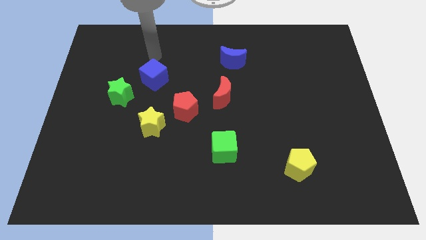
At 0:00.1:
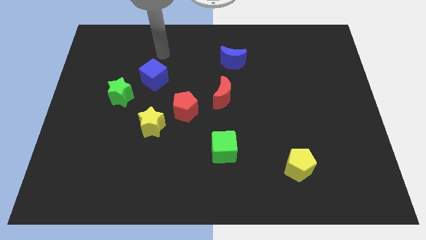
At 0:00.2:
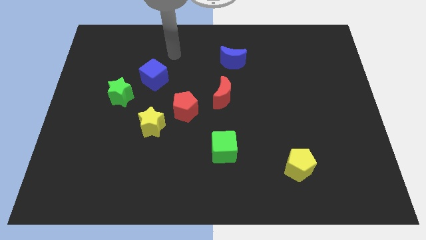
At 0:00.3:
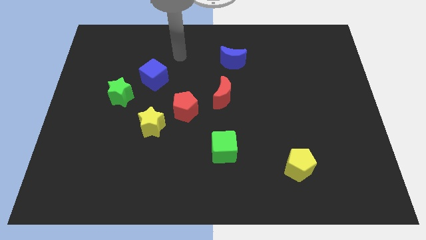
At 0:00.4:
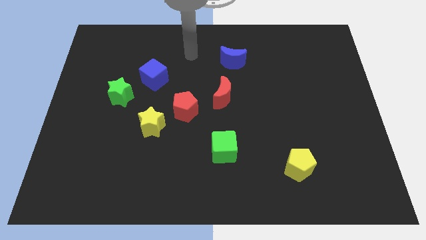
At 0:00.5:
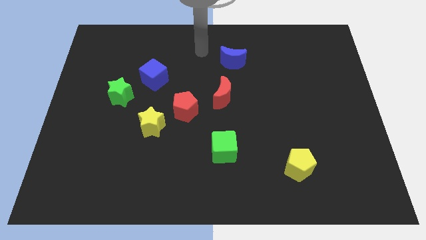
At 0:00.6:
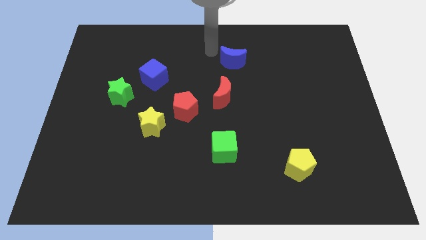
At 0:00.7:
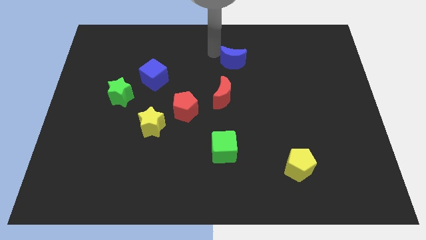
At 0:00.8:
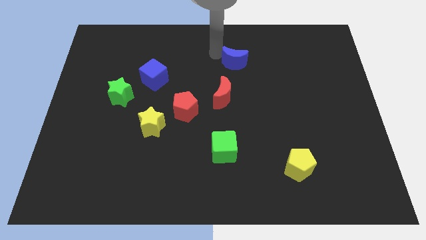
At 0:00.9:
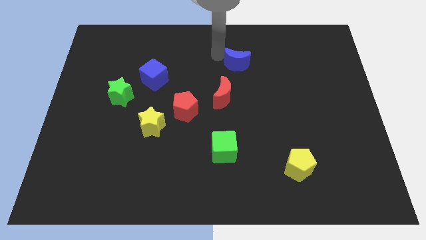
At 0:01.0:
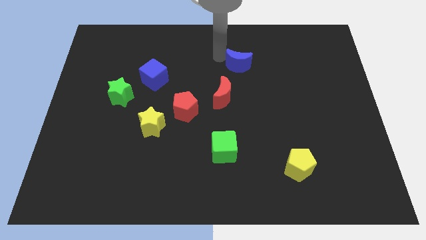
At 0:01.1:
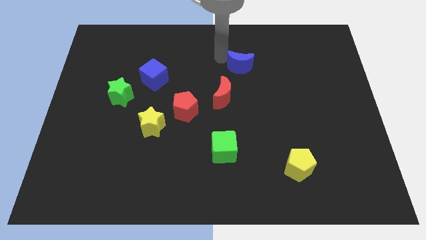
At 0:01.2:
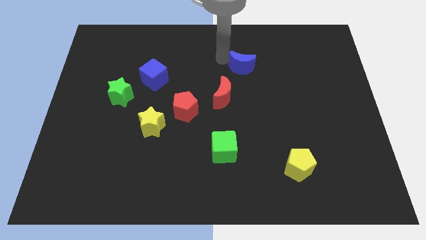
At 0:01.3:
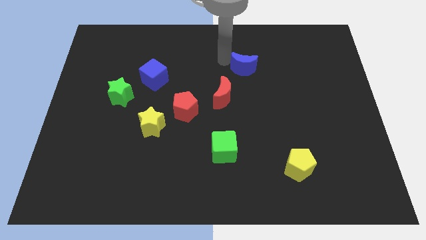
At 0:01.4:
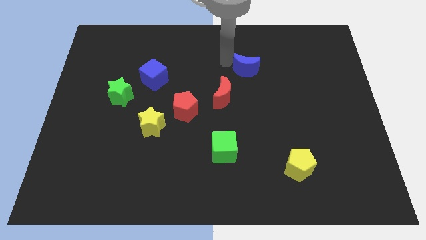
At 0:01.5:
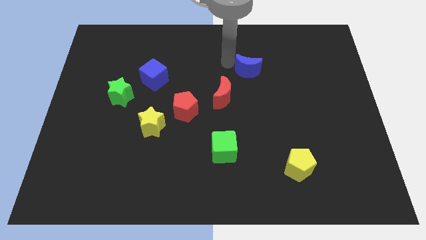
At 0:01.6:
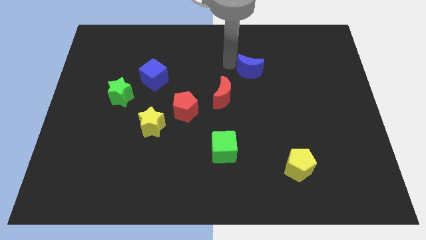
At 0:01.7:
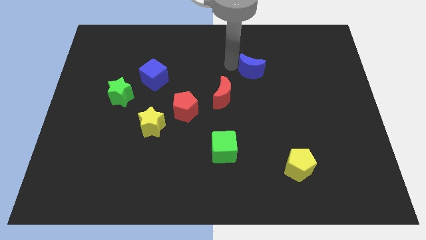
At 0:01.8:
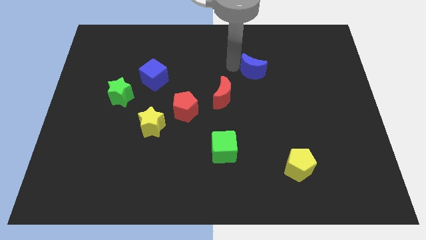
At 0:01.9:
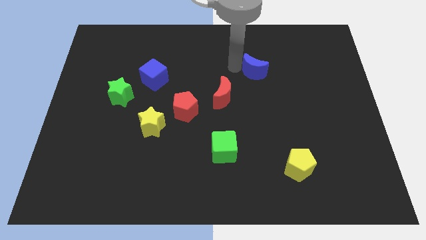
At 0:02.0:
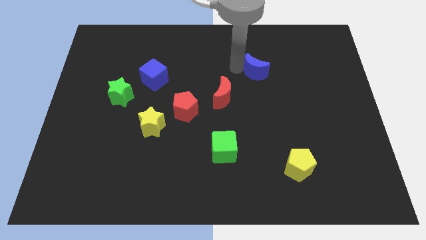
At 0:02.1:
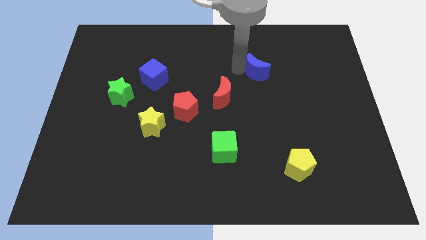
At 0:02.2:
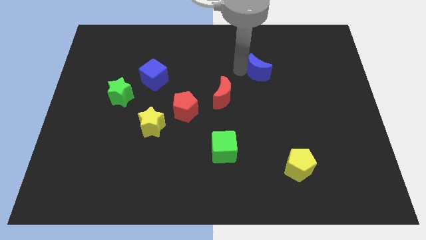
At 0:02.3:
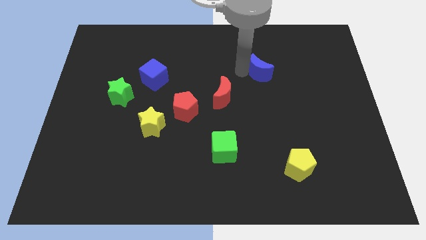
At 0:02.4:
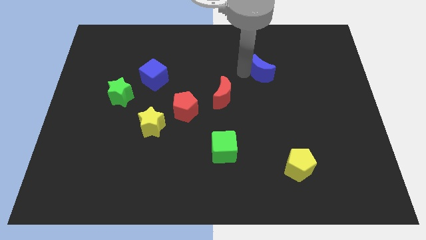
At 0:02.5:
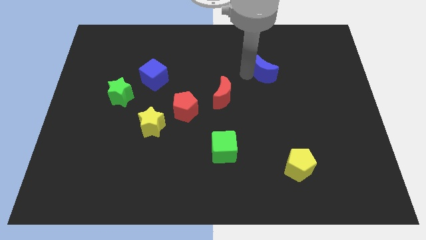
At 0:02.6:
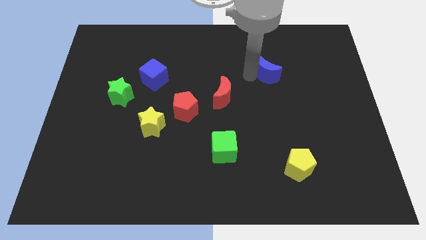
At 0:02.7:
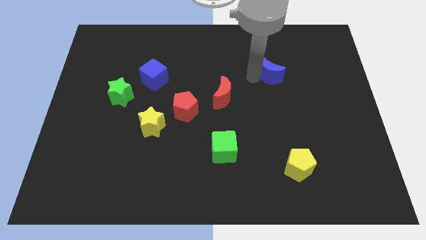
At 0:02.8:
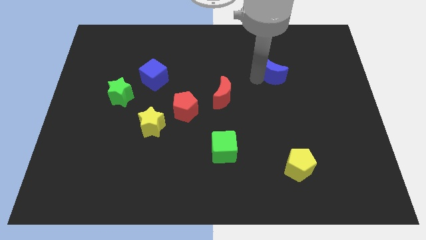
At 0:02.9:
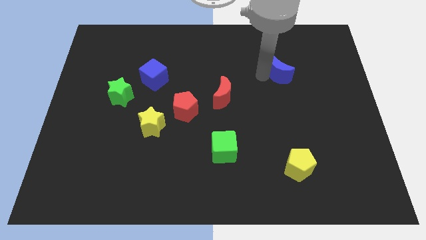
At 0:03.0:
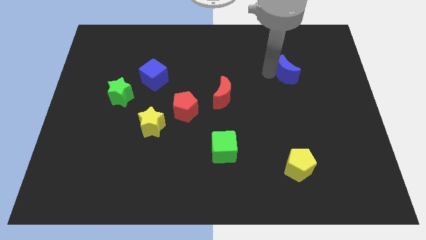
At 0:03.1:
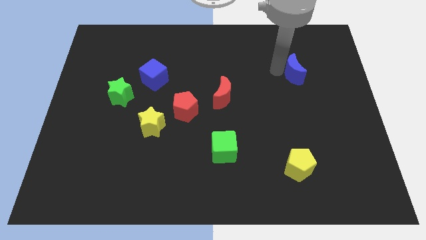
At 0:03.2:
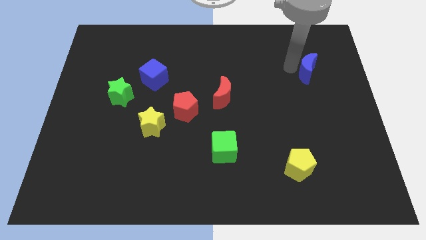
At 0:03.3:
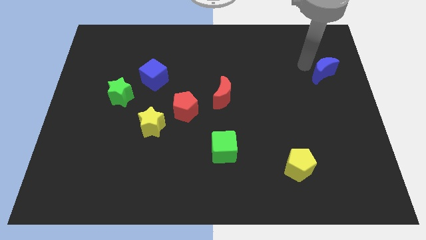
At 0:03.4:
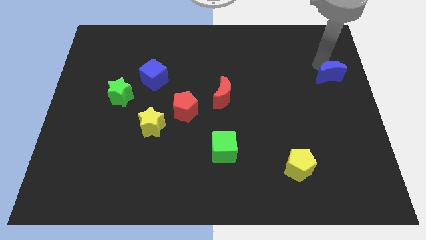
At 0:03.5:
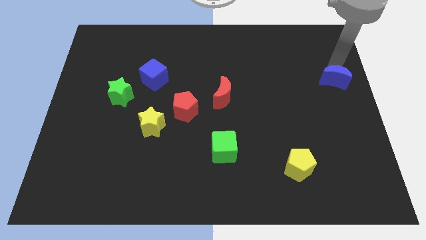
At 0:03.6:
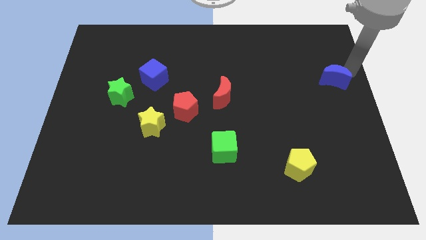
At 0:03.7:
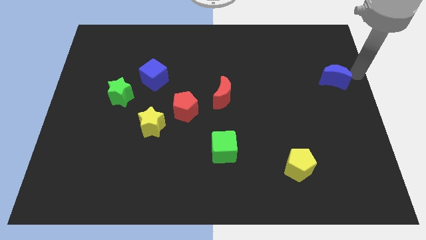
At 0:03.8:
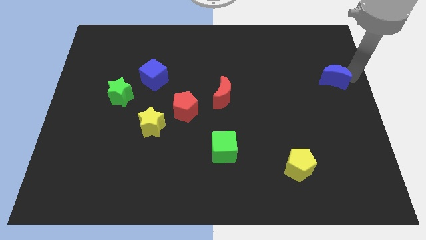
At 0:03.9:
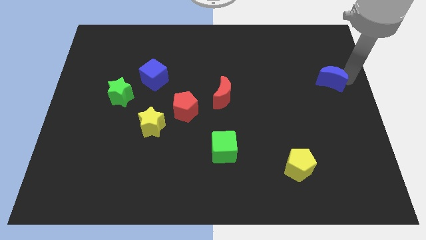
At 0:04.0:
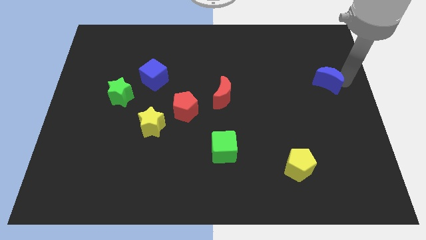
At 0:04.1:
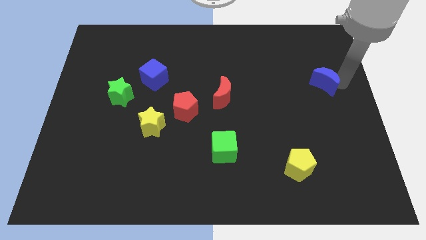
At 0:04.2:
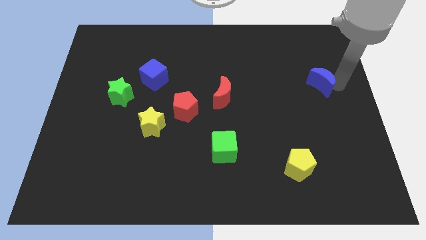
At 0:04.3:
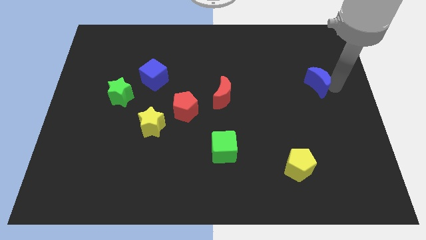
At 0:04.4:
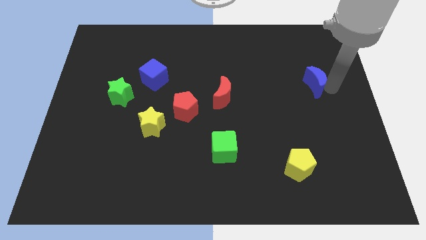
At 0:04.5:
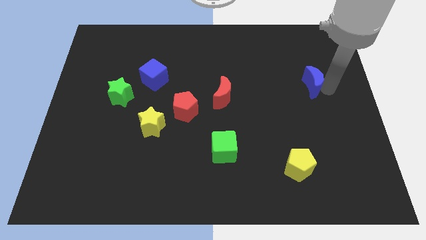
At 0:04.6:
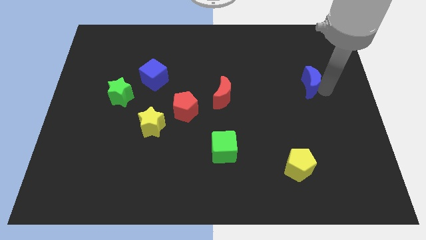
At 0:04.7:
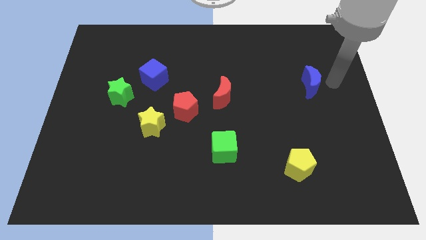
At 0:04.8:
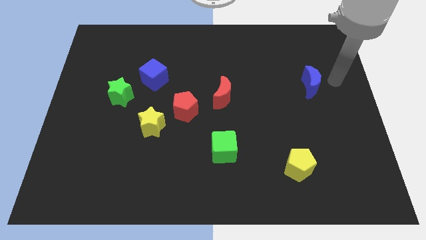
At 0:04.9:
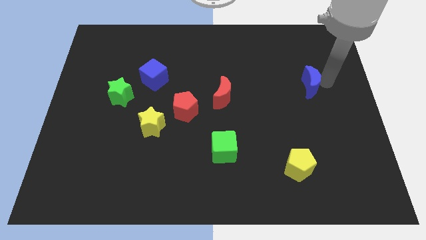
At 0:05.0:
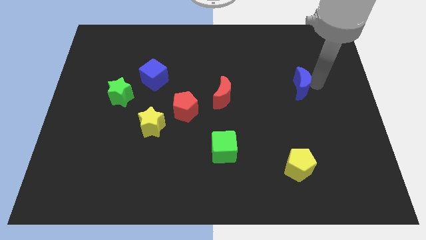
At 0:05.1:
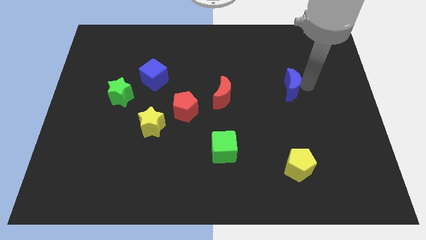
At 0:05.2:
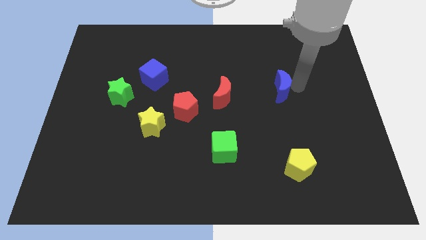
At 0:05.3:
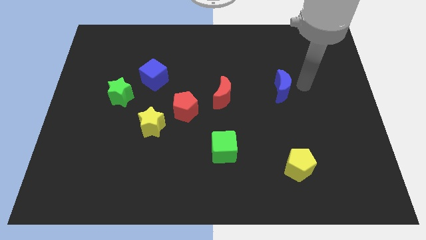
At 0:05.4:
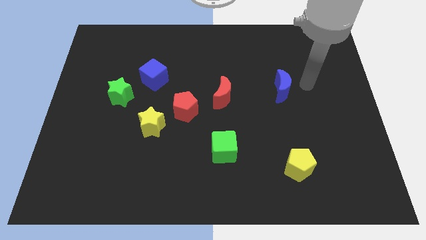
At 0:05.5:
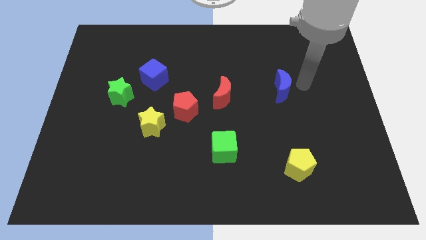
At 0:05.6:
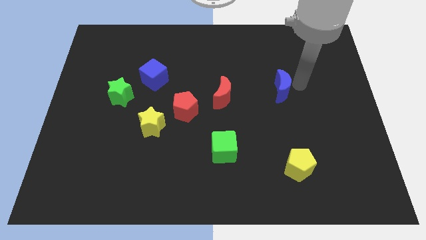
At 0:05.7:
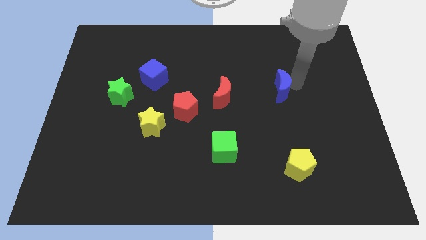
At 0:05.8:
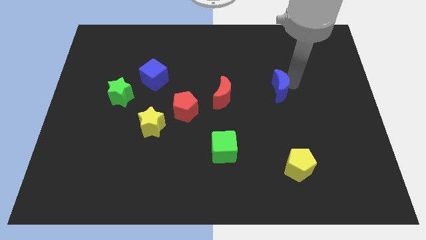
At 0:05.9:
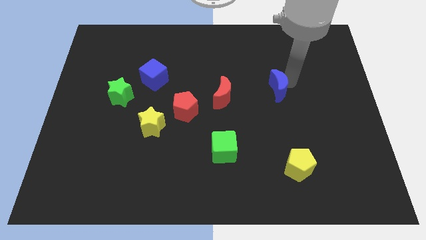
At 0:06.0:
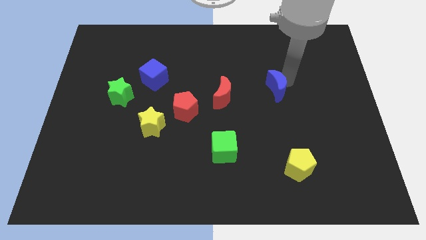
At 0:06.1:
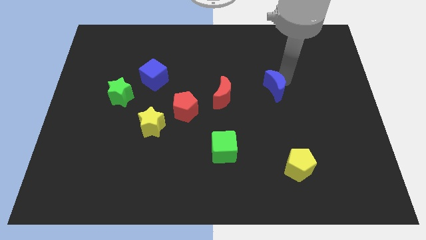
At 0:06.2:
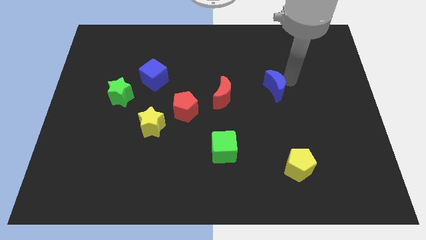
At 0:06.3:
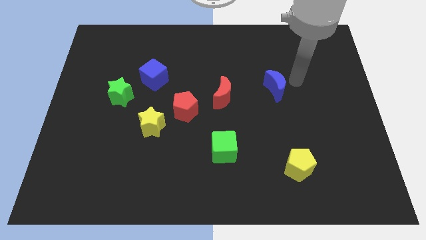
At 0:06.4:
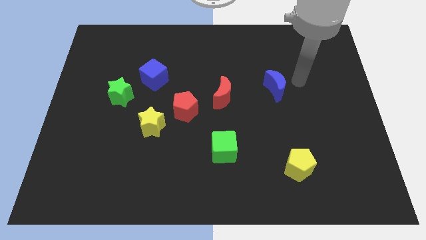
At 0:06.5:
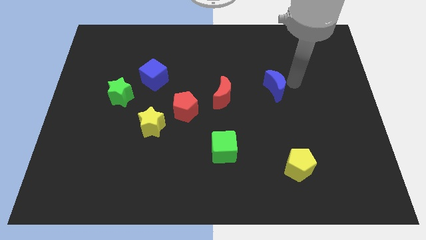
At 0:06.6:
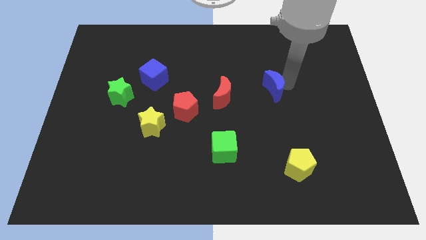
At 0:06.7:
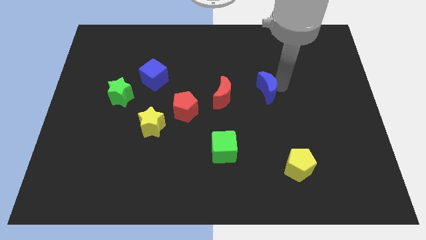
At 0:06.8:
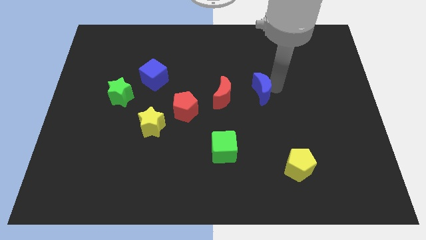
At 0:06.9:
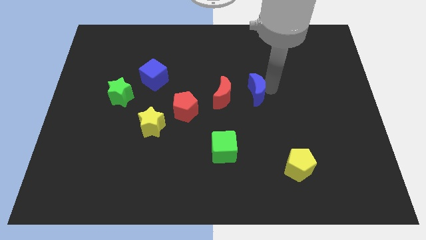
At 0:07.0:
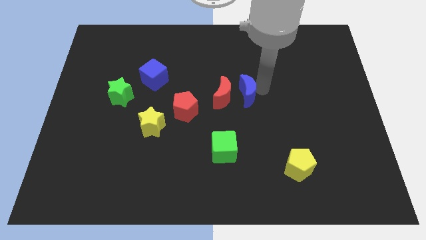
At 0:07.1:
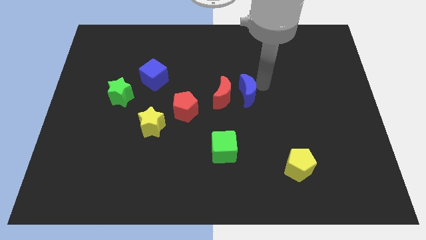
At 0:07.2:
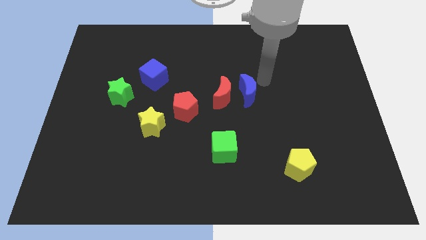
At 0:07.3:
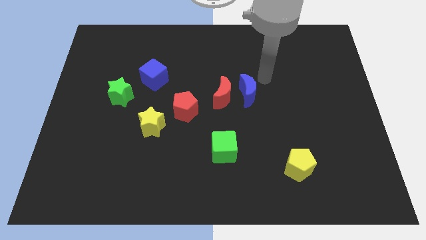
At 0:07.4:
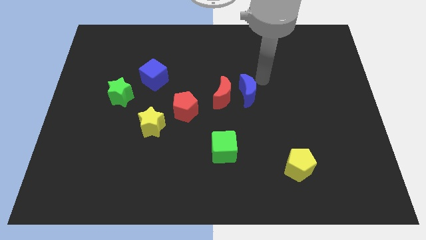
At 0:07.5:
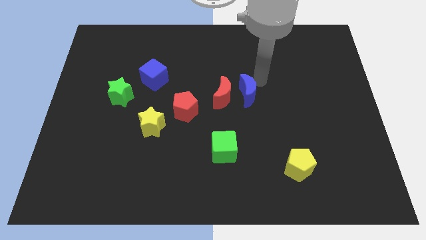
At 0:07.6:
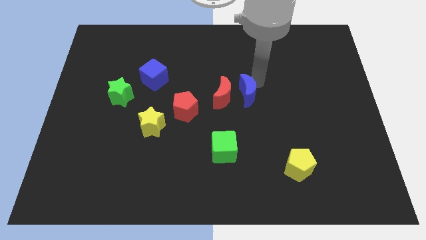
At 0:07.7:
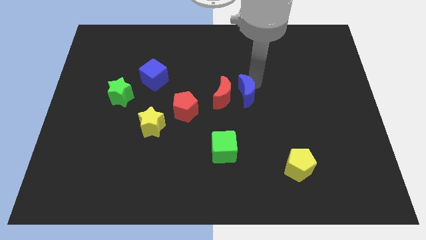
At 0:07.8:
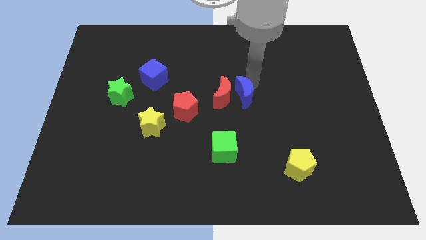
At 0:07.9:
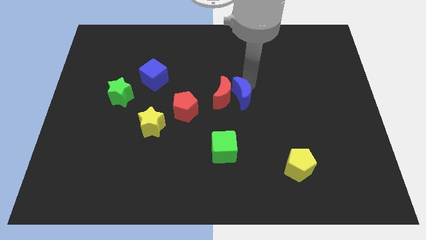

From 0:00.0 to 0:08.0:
move the blue moon just right of the red pentagon

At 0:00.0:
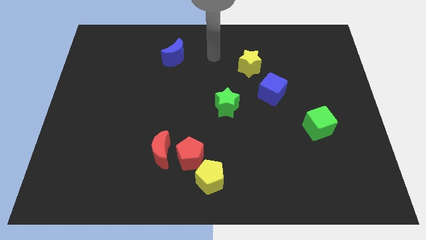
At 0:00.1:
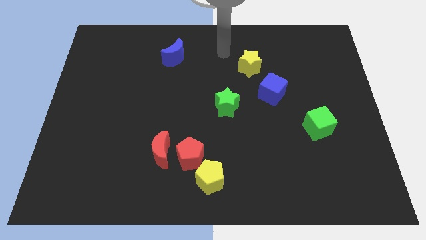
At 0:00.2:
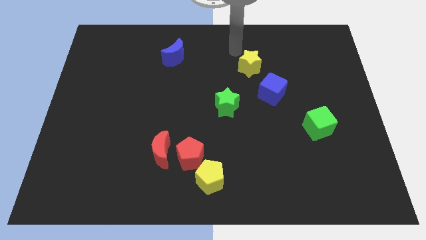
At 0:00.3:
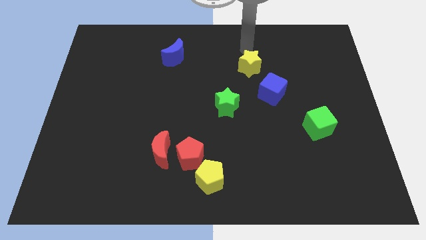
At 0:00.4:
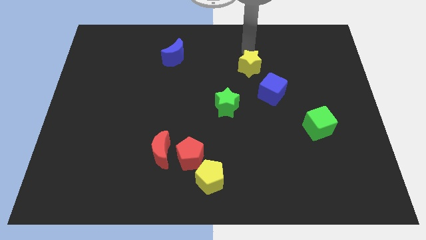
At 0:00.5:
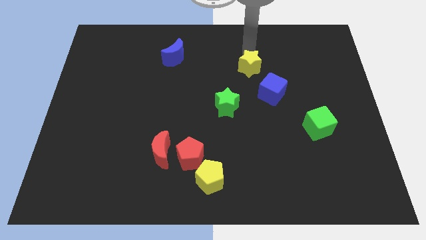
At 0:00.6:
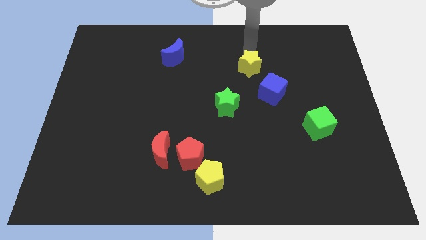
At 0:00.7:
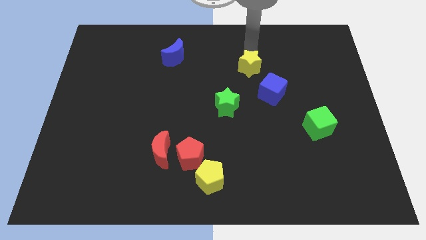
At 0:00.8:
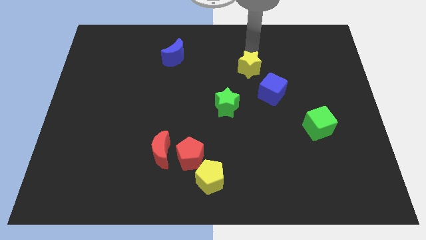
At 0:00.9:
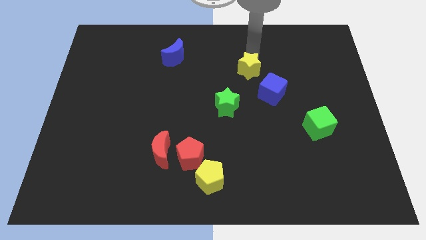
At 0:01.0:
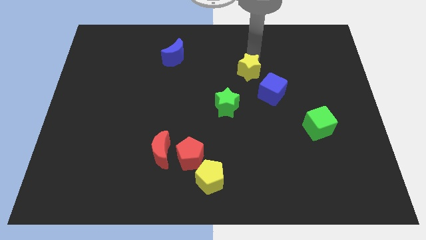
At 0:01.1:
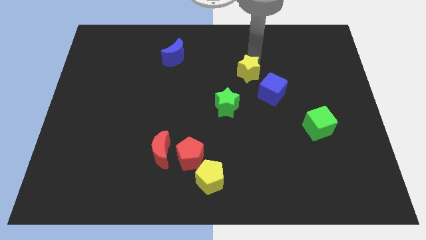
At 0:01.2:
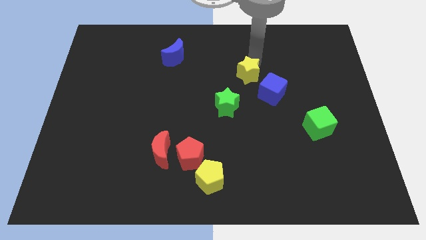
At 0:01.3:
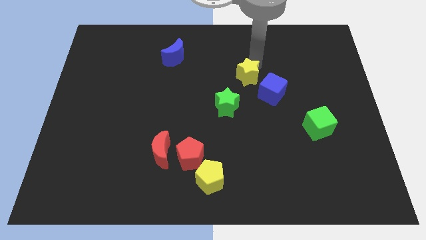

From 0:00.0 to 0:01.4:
push the yellow star diagonally up and to the right of the green star
